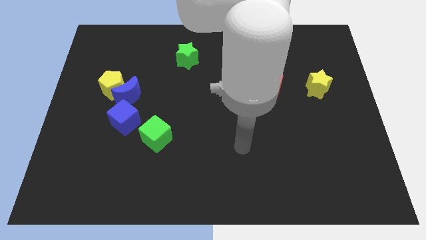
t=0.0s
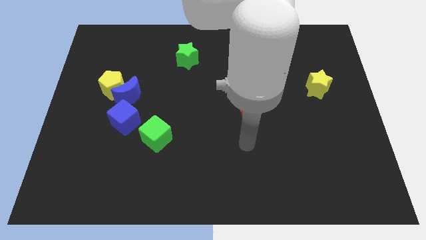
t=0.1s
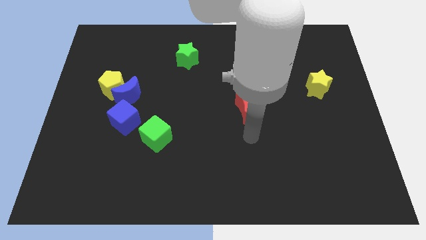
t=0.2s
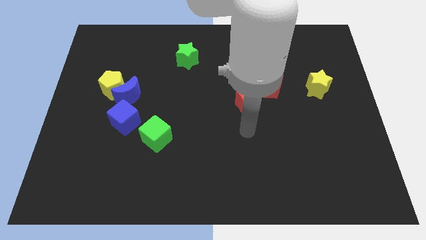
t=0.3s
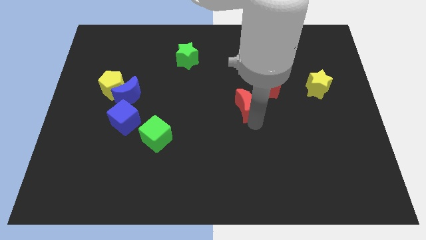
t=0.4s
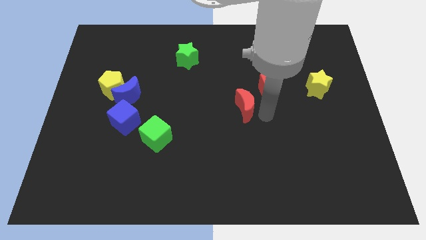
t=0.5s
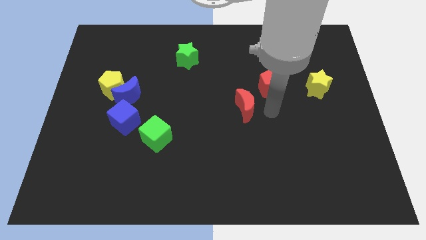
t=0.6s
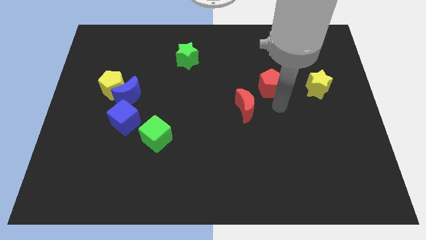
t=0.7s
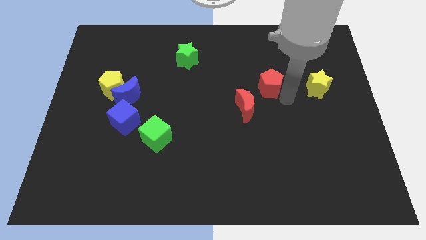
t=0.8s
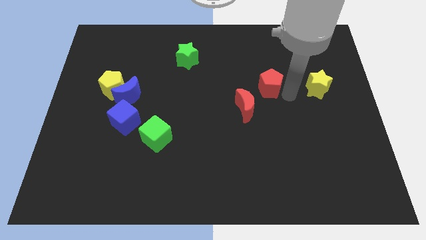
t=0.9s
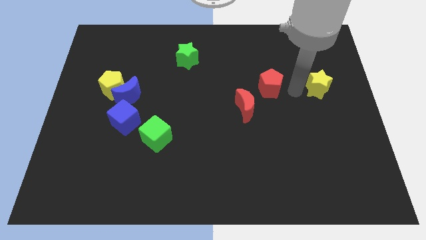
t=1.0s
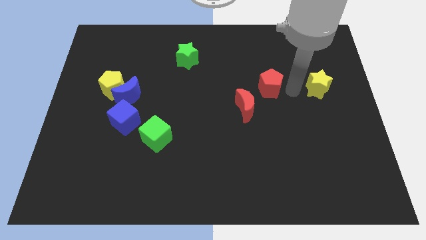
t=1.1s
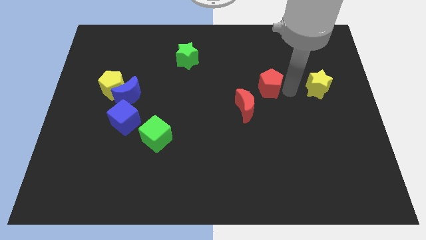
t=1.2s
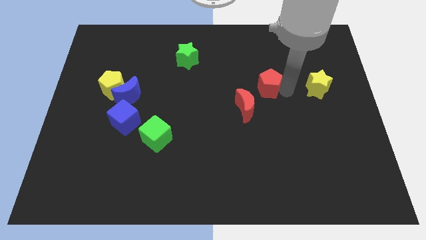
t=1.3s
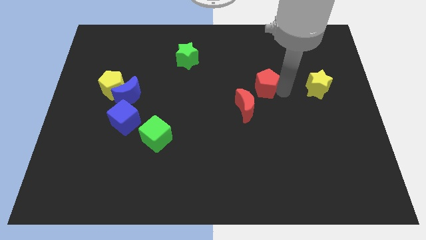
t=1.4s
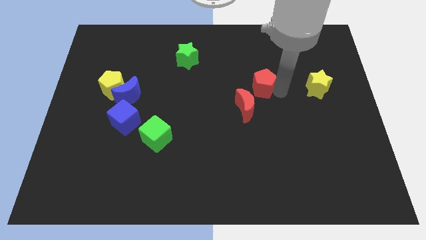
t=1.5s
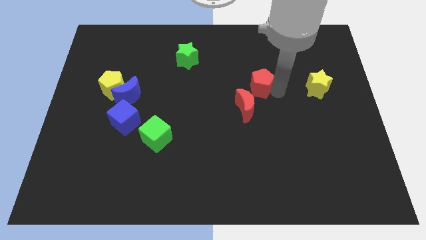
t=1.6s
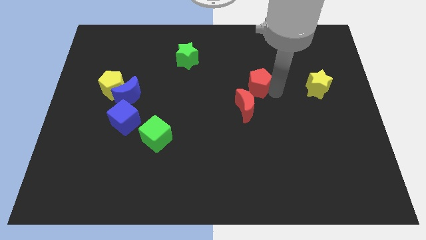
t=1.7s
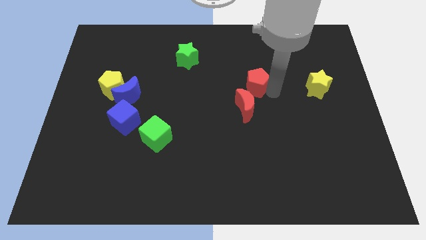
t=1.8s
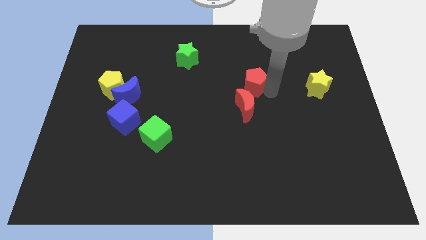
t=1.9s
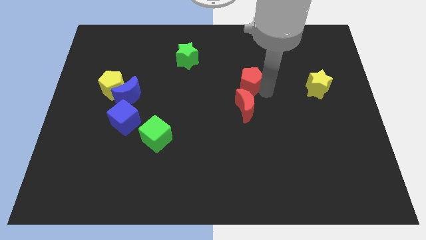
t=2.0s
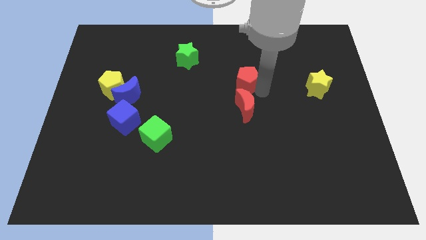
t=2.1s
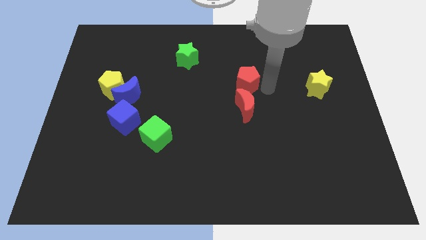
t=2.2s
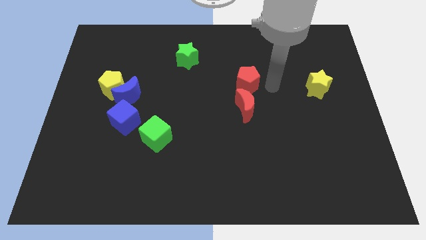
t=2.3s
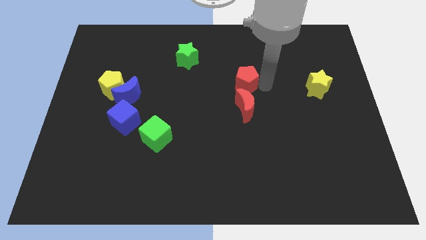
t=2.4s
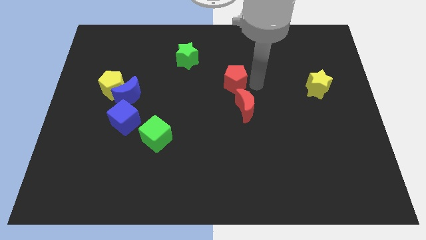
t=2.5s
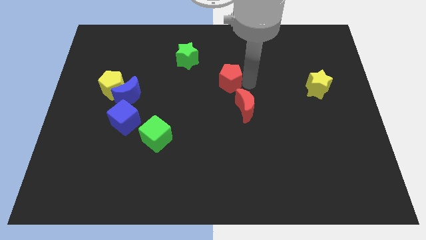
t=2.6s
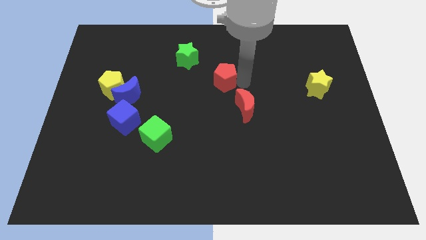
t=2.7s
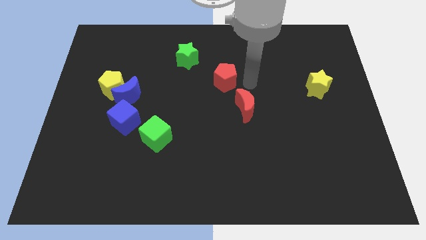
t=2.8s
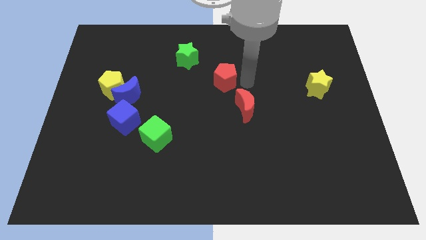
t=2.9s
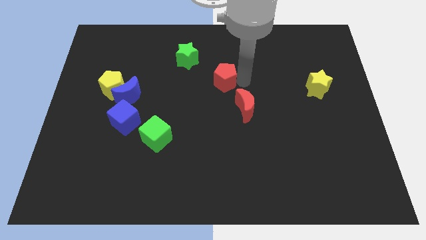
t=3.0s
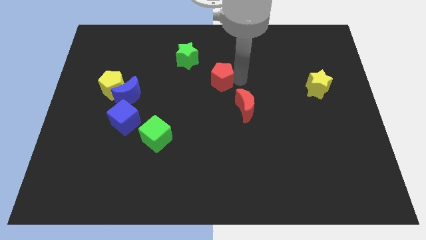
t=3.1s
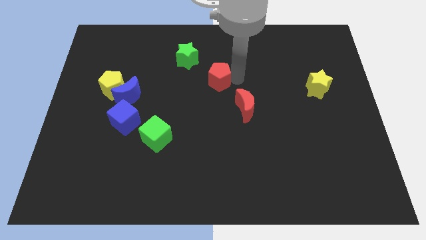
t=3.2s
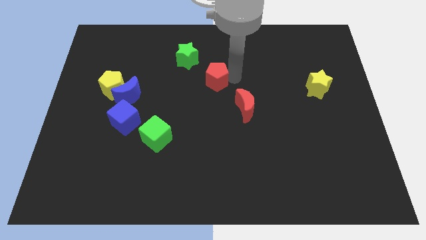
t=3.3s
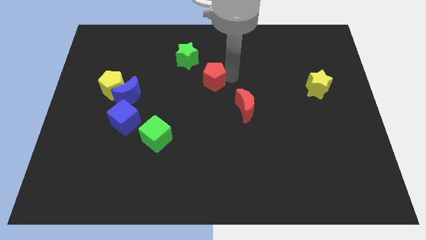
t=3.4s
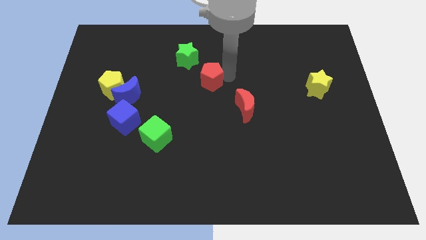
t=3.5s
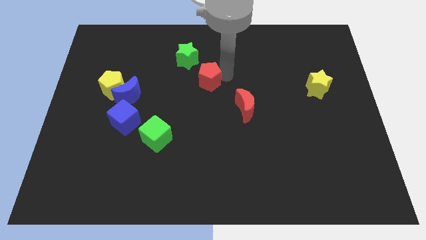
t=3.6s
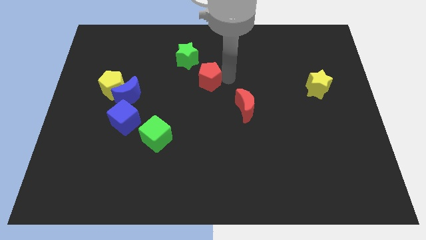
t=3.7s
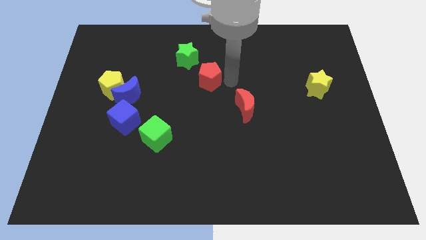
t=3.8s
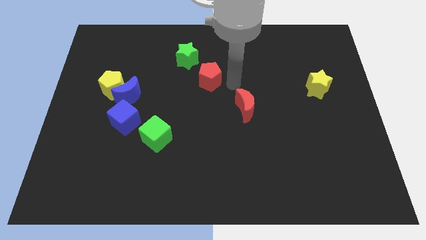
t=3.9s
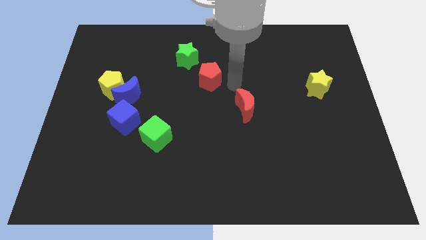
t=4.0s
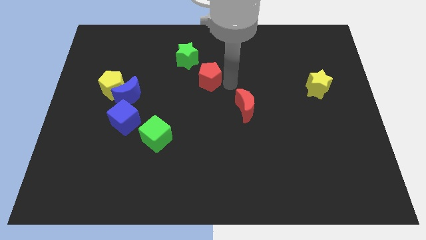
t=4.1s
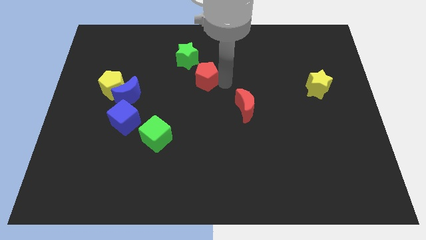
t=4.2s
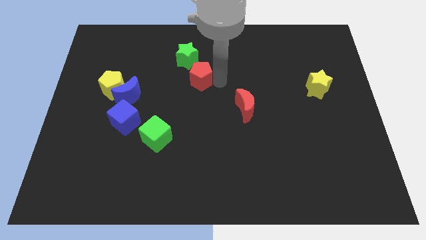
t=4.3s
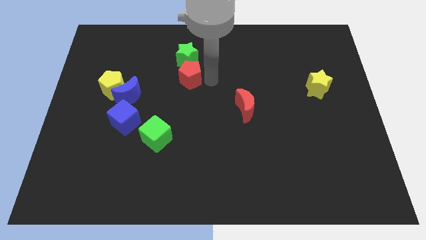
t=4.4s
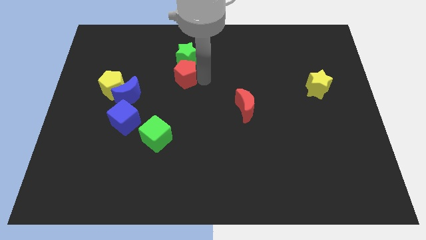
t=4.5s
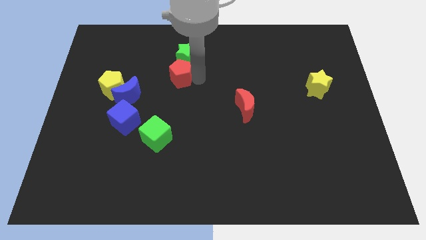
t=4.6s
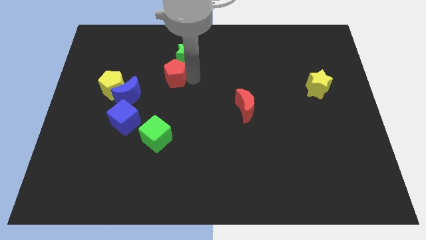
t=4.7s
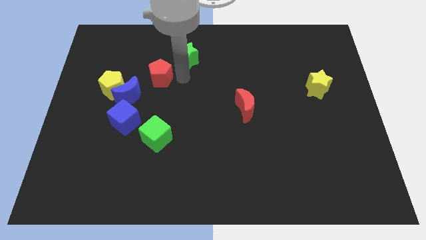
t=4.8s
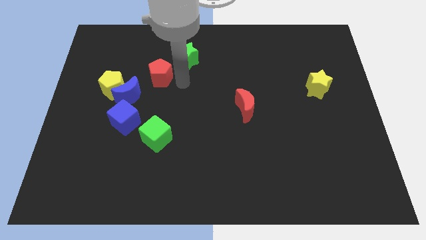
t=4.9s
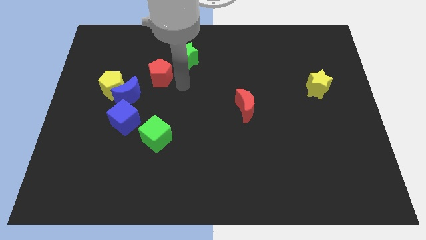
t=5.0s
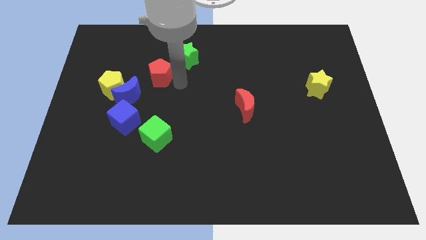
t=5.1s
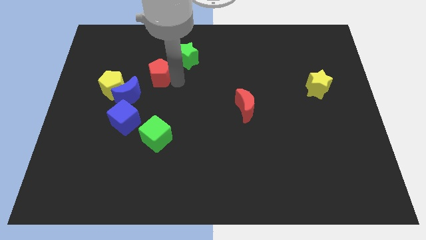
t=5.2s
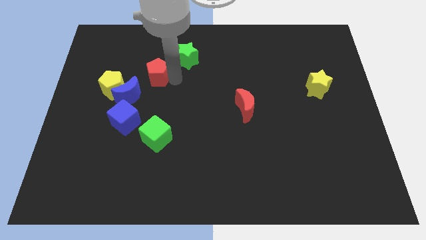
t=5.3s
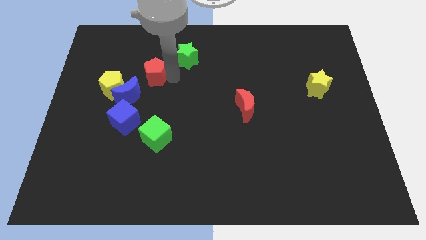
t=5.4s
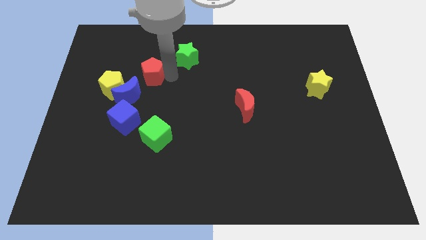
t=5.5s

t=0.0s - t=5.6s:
push the red pentagon to the top side of the blue moon

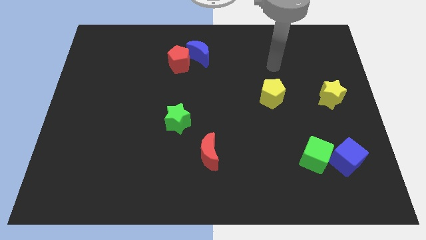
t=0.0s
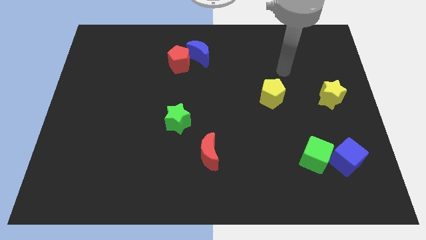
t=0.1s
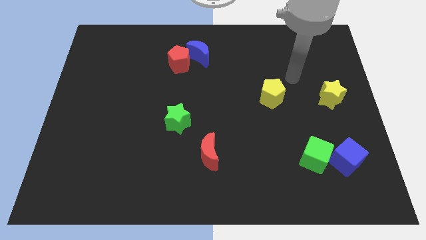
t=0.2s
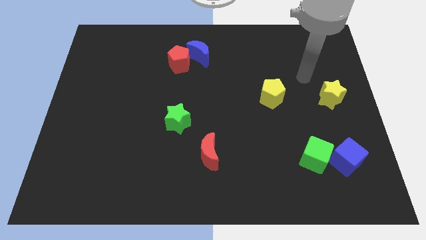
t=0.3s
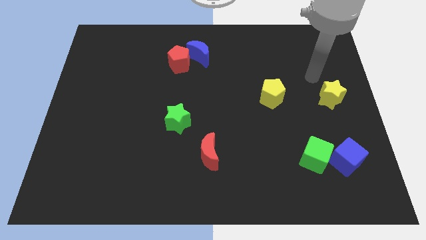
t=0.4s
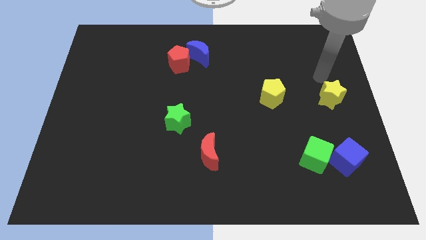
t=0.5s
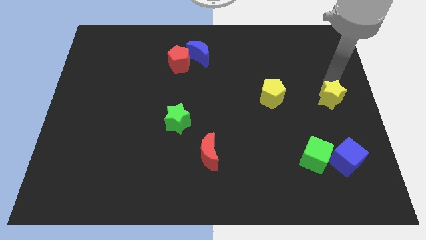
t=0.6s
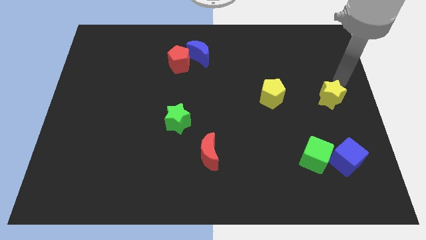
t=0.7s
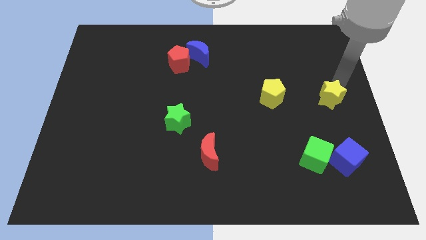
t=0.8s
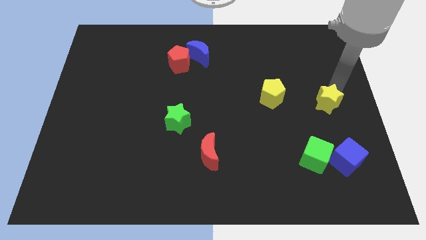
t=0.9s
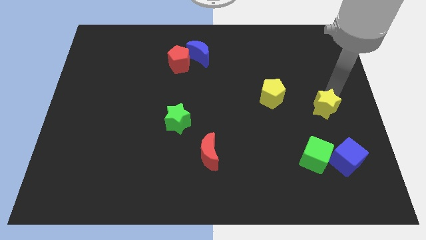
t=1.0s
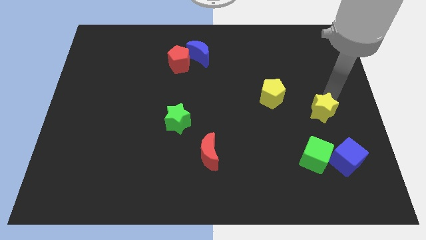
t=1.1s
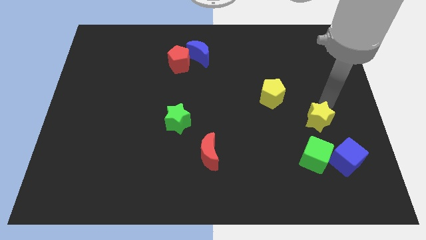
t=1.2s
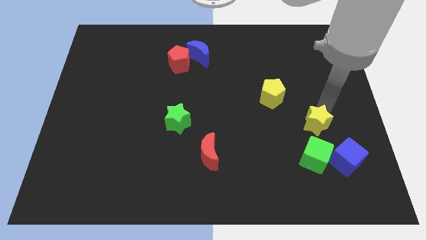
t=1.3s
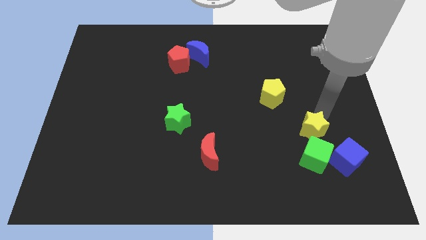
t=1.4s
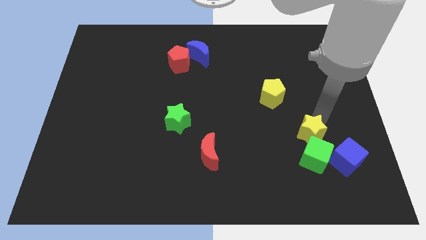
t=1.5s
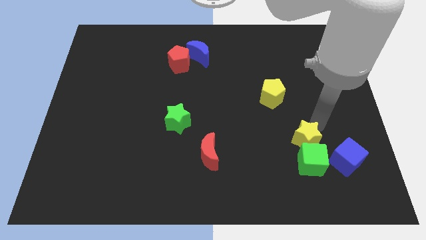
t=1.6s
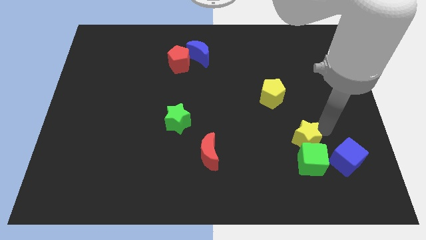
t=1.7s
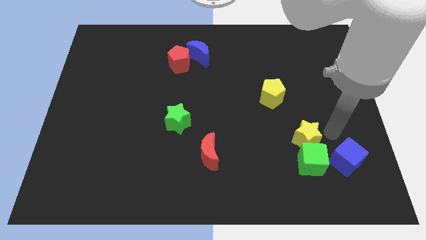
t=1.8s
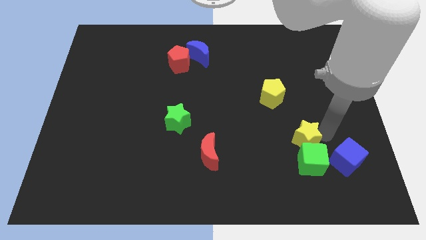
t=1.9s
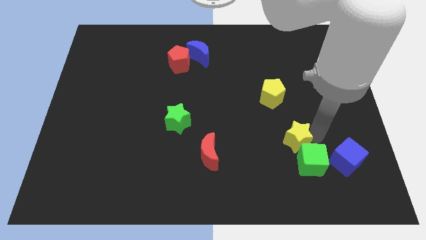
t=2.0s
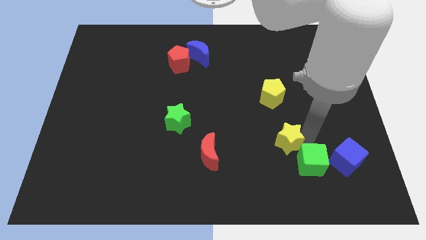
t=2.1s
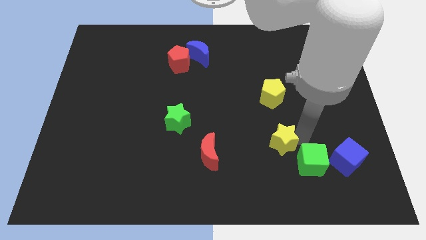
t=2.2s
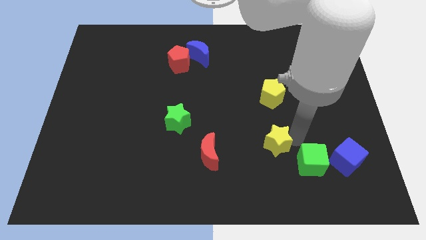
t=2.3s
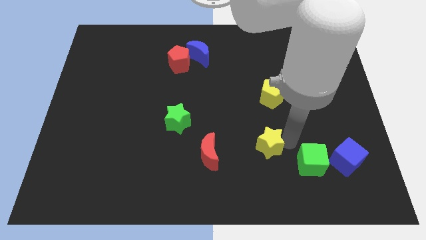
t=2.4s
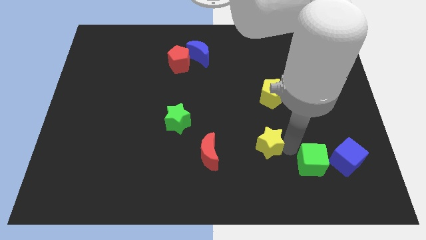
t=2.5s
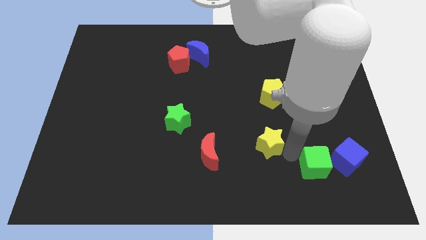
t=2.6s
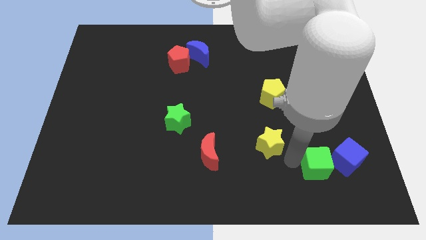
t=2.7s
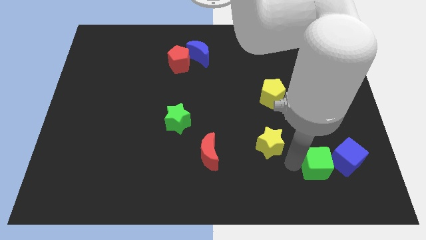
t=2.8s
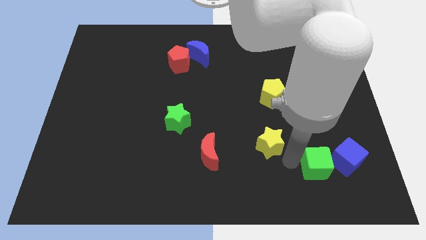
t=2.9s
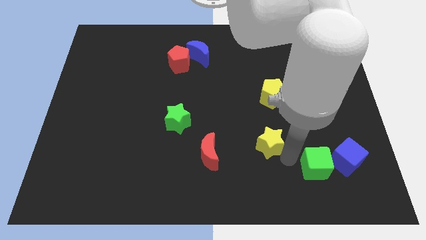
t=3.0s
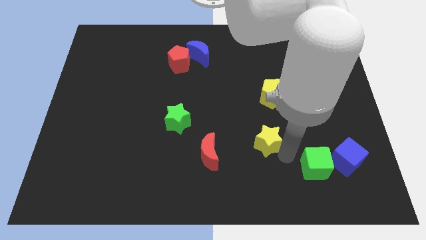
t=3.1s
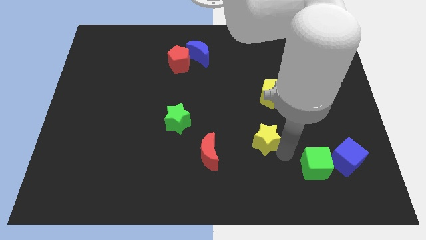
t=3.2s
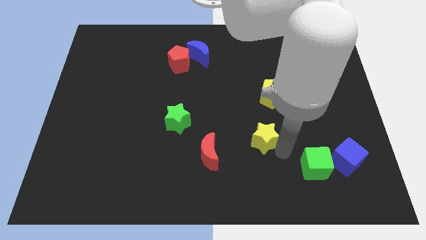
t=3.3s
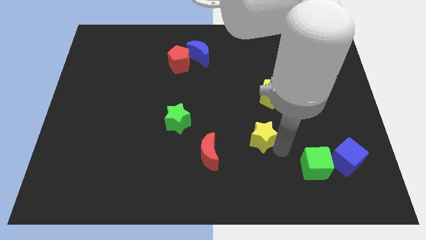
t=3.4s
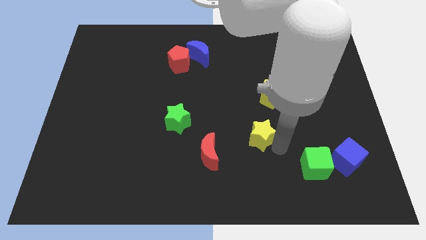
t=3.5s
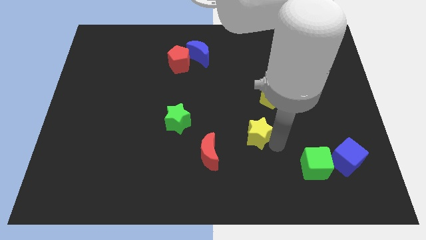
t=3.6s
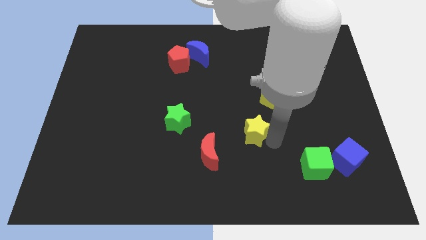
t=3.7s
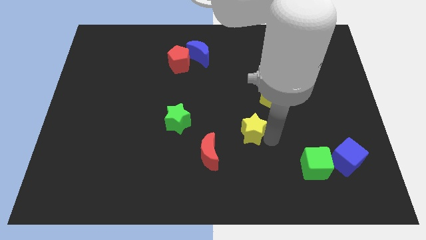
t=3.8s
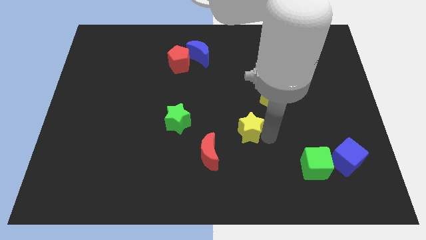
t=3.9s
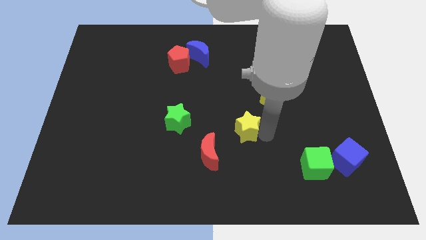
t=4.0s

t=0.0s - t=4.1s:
put the yellow star to the right of the green star
